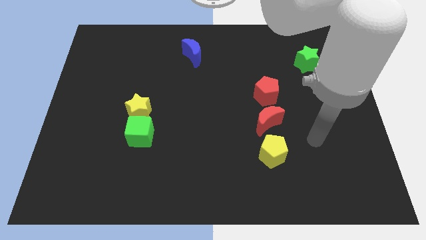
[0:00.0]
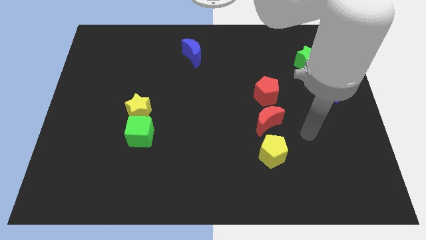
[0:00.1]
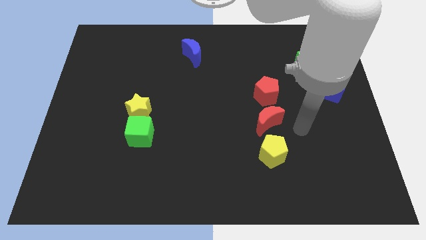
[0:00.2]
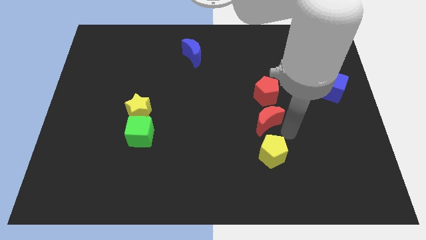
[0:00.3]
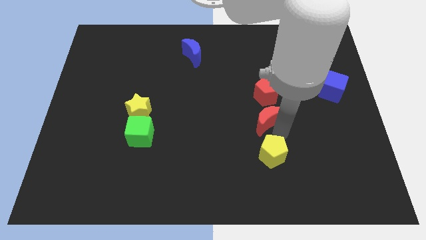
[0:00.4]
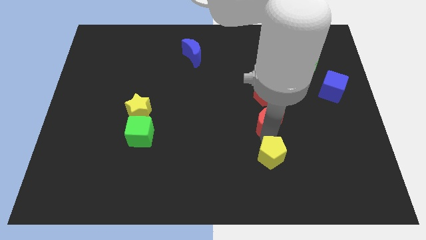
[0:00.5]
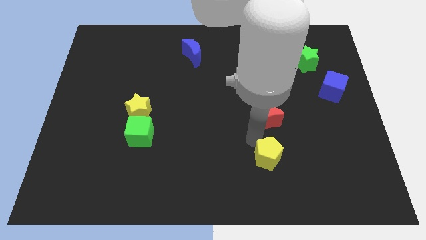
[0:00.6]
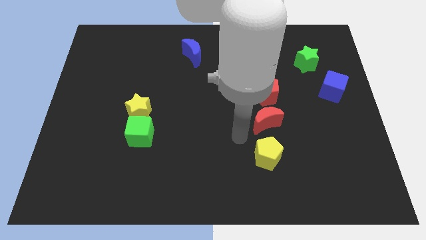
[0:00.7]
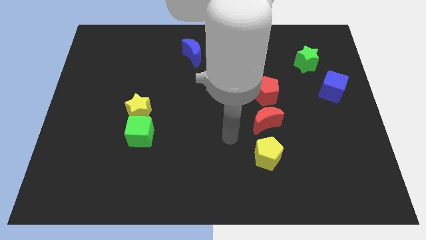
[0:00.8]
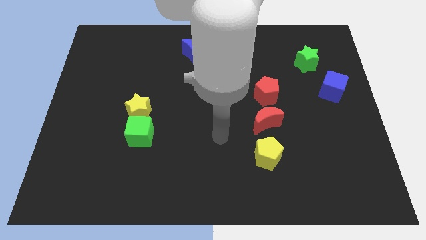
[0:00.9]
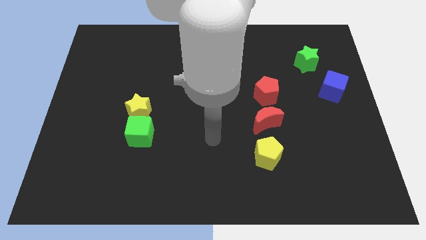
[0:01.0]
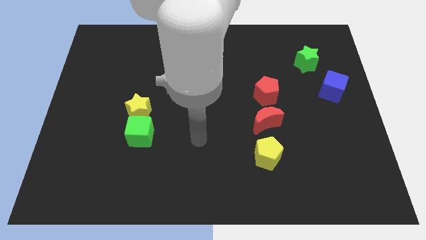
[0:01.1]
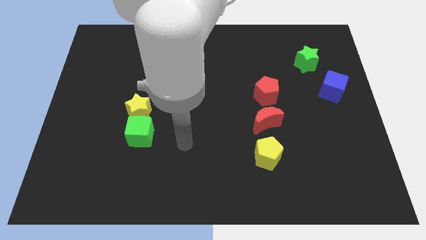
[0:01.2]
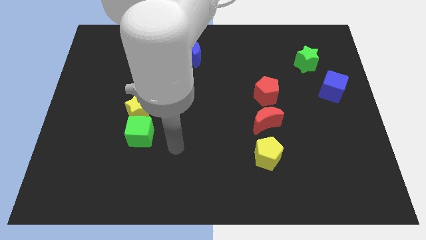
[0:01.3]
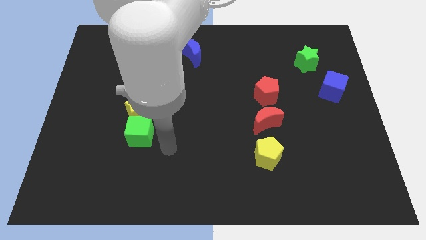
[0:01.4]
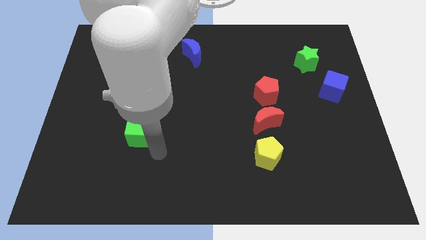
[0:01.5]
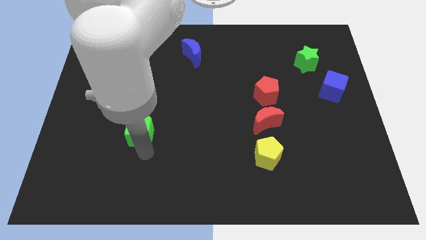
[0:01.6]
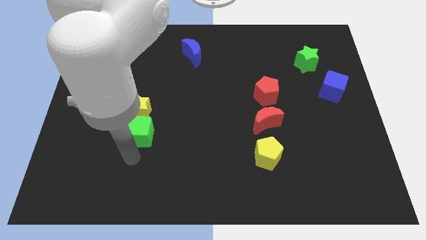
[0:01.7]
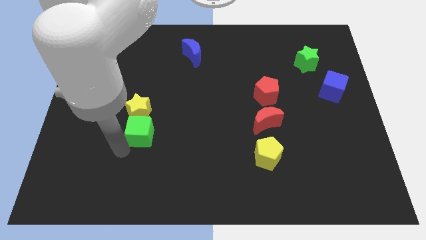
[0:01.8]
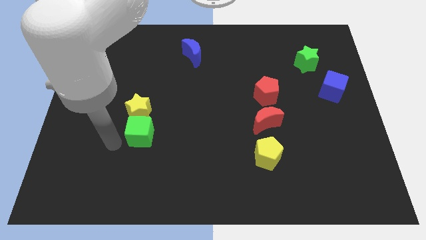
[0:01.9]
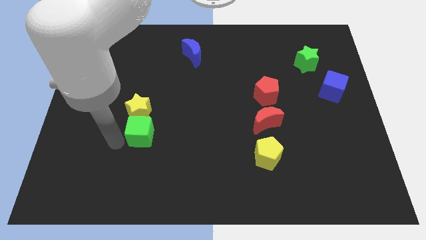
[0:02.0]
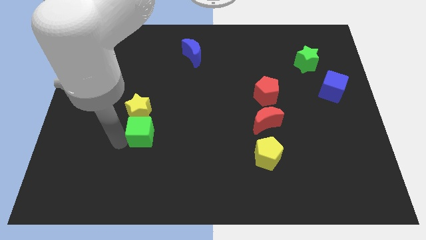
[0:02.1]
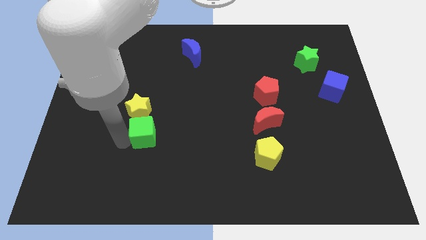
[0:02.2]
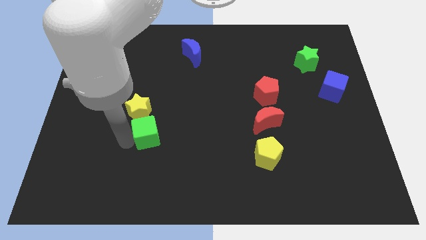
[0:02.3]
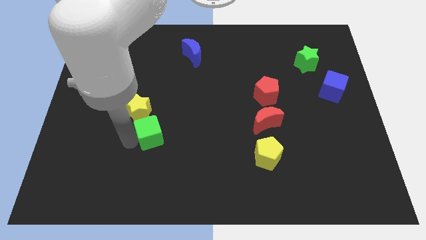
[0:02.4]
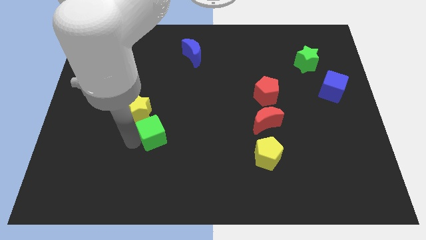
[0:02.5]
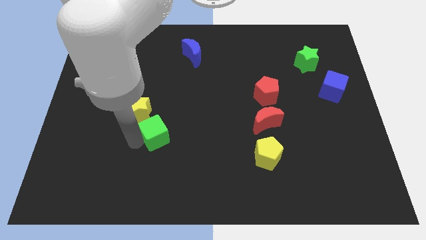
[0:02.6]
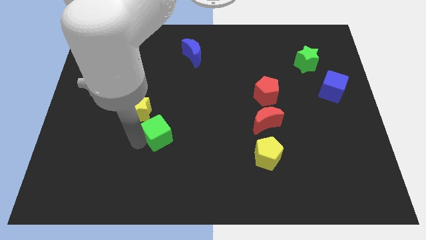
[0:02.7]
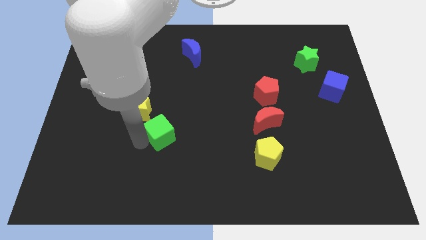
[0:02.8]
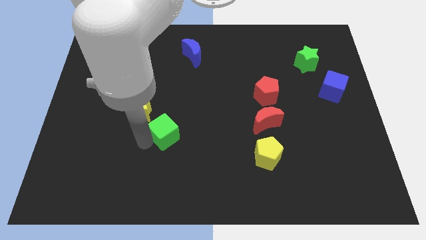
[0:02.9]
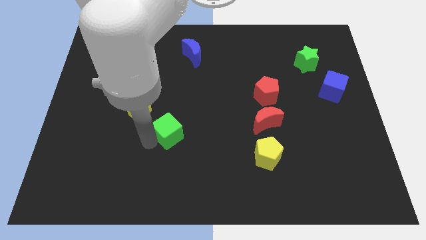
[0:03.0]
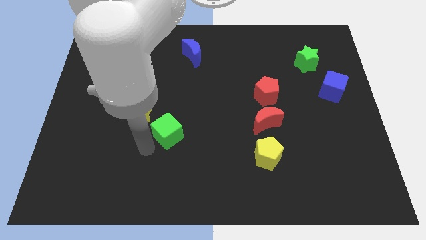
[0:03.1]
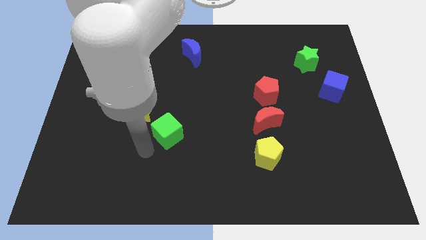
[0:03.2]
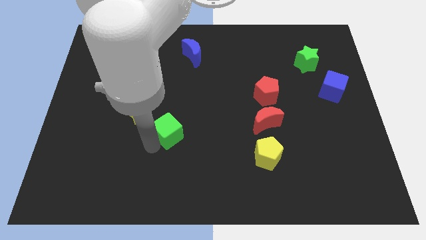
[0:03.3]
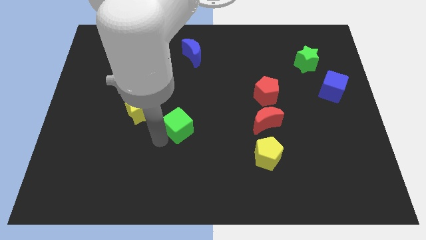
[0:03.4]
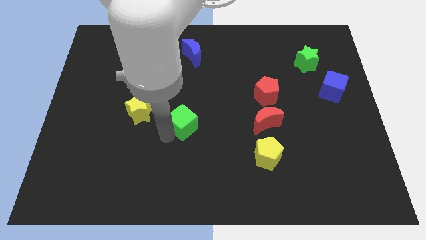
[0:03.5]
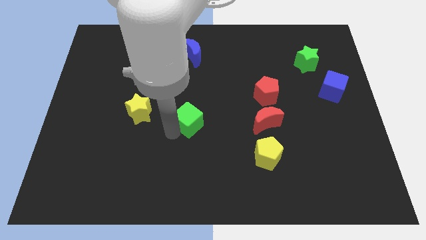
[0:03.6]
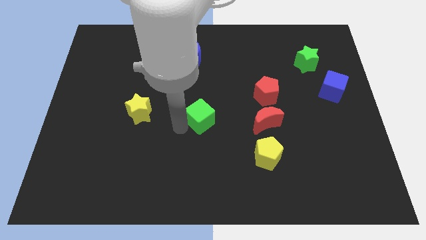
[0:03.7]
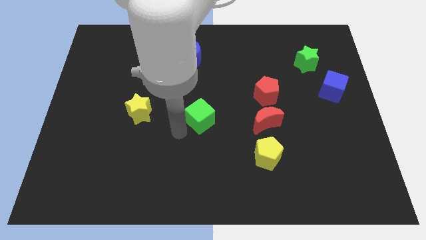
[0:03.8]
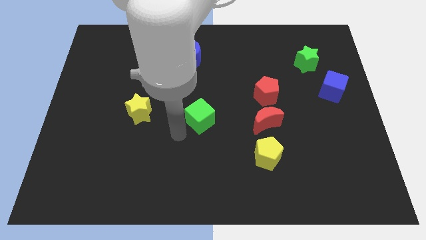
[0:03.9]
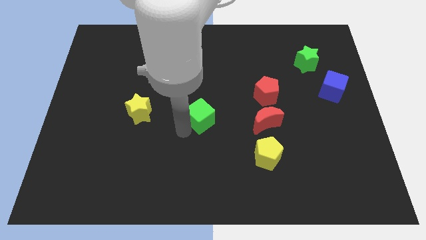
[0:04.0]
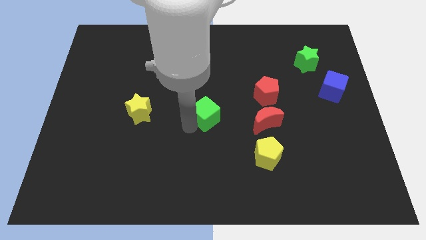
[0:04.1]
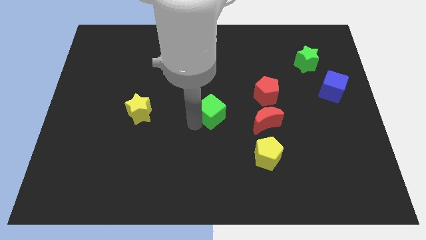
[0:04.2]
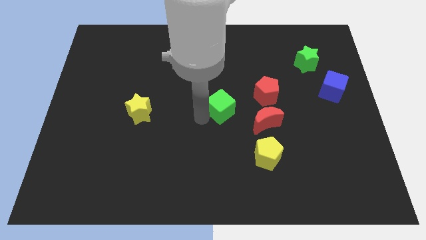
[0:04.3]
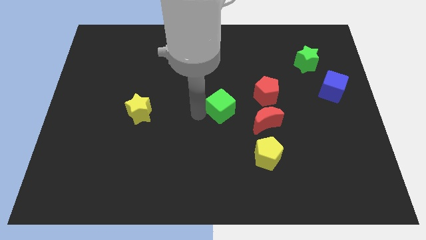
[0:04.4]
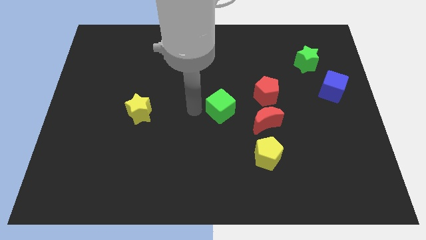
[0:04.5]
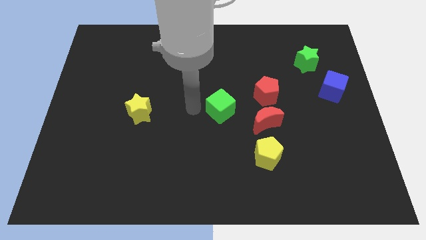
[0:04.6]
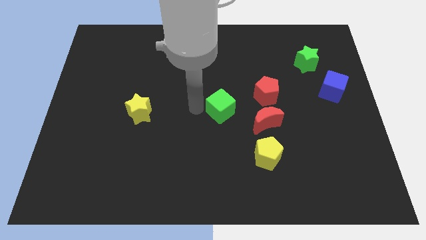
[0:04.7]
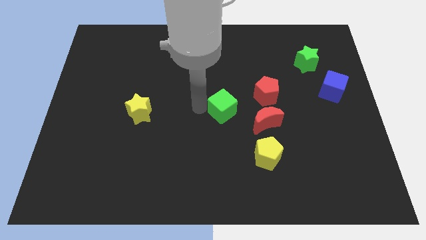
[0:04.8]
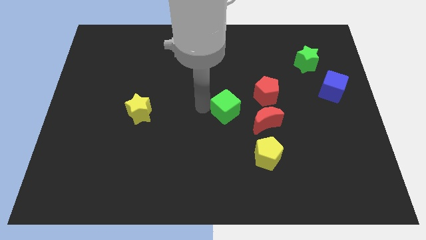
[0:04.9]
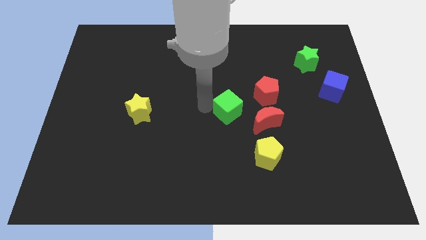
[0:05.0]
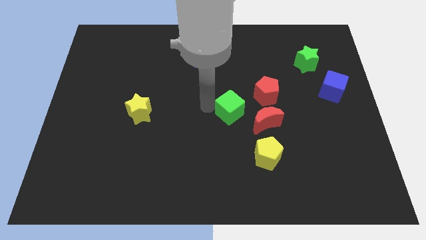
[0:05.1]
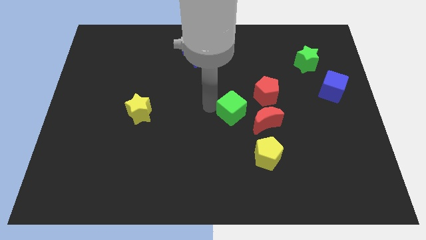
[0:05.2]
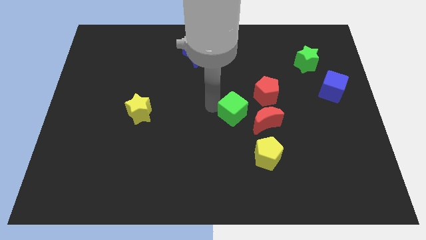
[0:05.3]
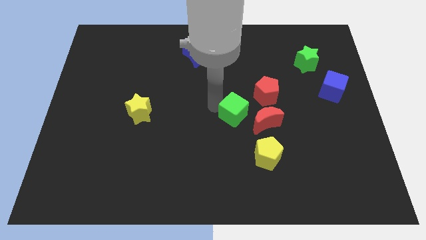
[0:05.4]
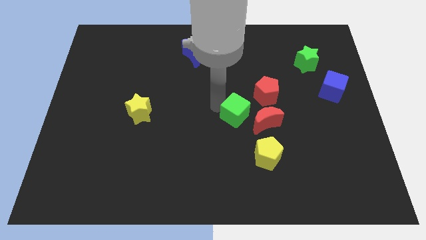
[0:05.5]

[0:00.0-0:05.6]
push the green cube right

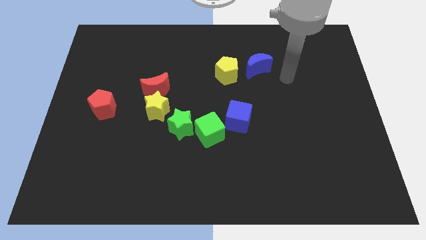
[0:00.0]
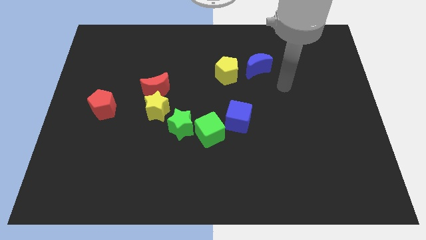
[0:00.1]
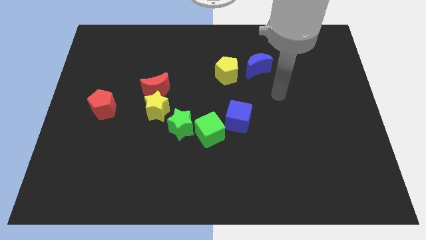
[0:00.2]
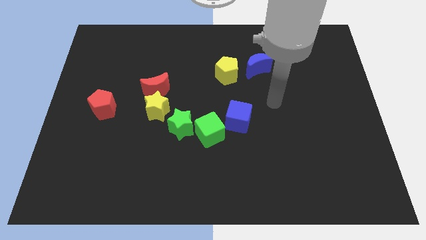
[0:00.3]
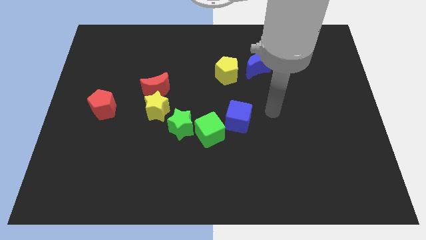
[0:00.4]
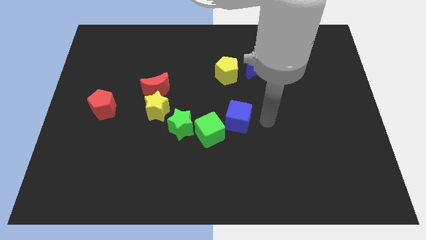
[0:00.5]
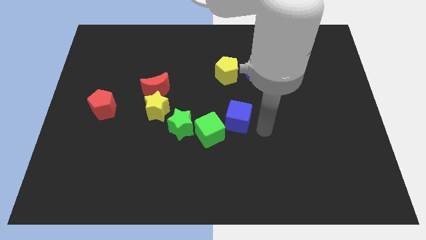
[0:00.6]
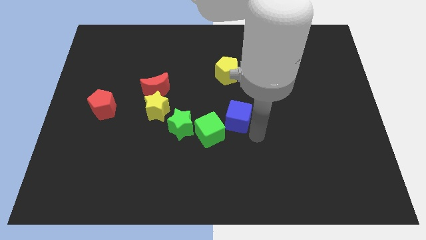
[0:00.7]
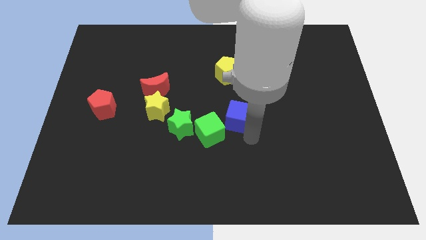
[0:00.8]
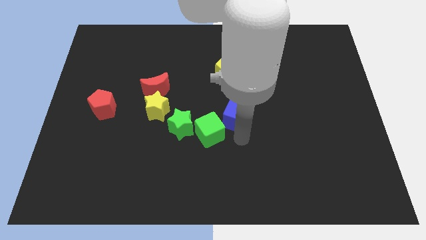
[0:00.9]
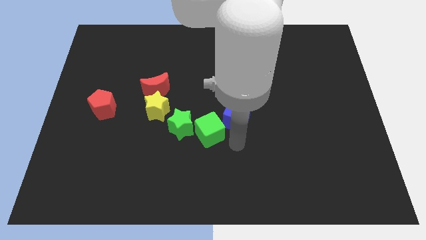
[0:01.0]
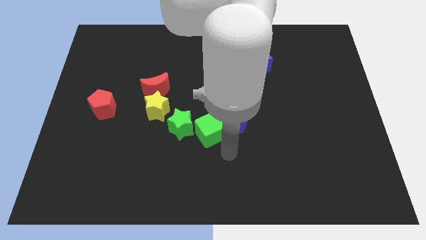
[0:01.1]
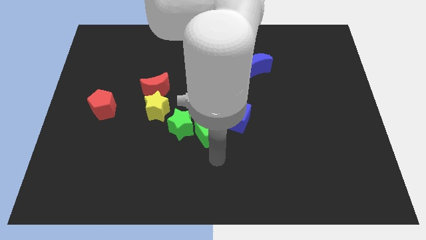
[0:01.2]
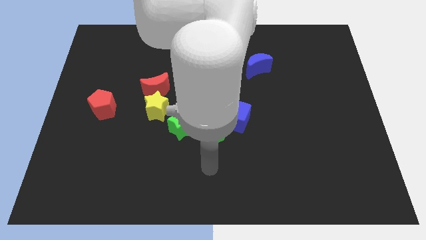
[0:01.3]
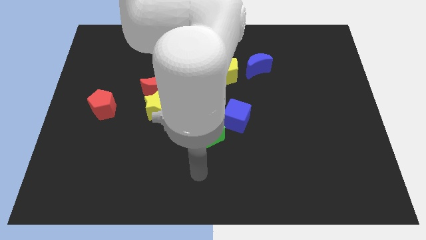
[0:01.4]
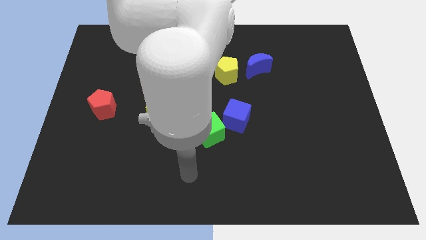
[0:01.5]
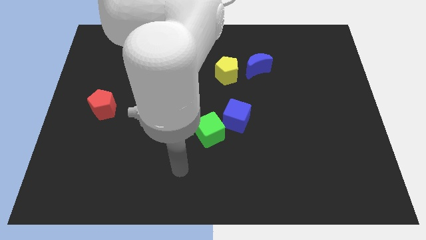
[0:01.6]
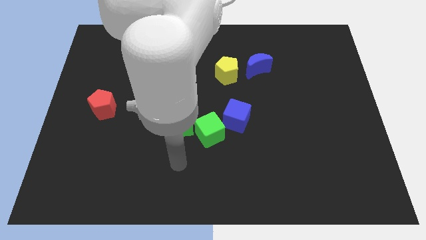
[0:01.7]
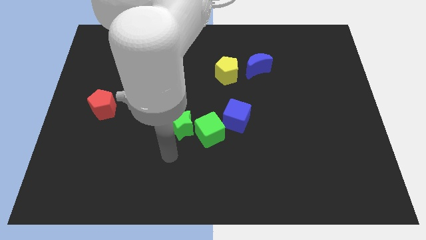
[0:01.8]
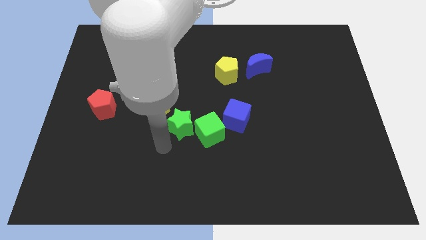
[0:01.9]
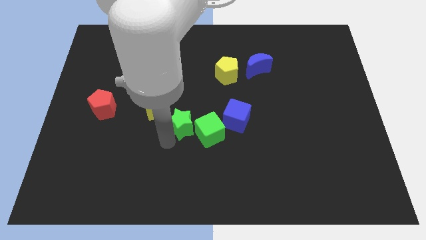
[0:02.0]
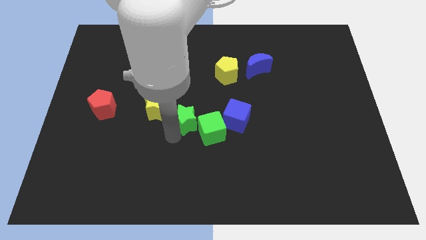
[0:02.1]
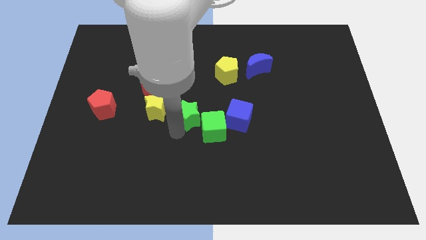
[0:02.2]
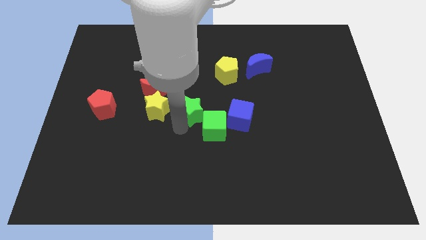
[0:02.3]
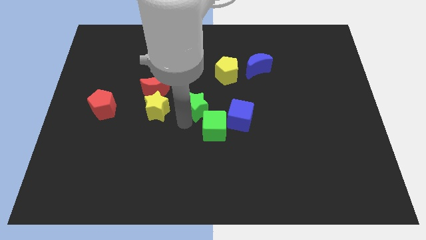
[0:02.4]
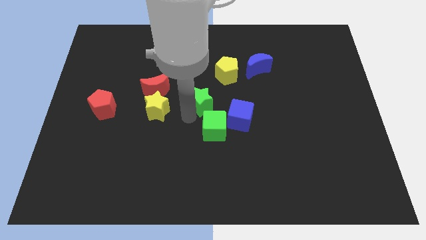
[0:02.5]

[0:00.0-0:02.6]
slightly move the green star up and then to the right
